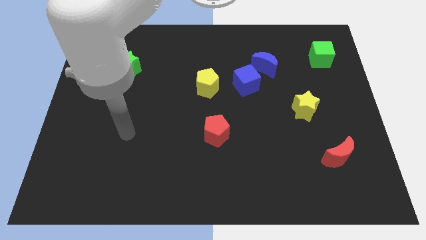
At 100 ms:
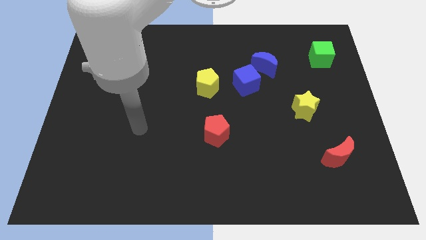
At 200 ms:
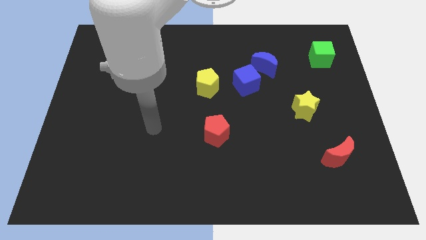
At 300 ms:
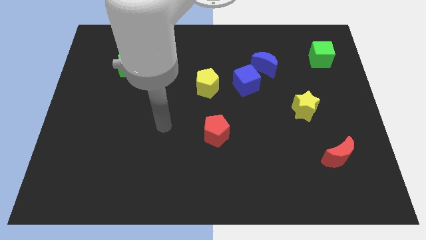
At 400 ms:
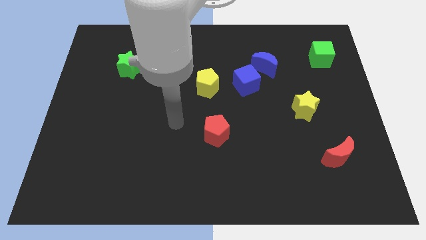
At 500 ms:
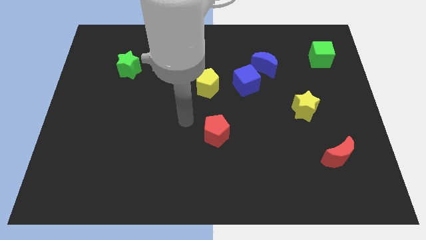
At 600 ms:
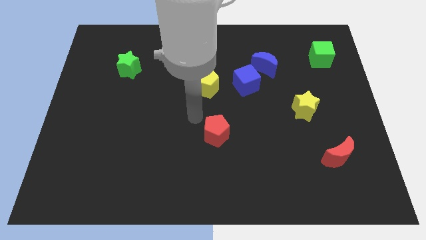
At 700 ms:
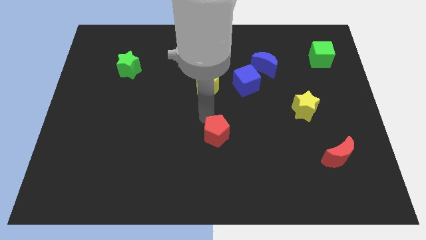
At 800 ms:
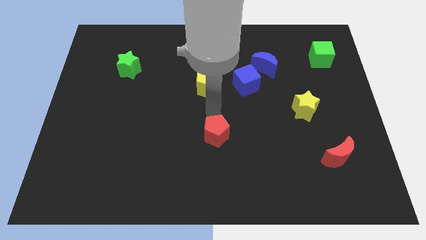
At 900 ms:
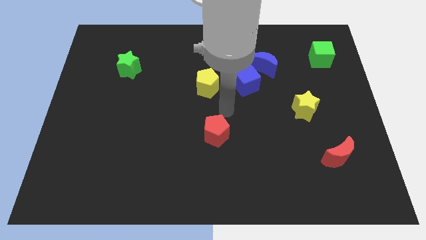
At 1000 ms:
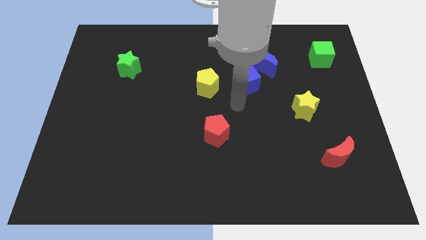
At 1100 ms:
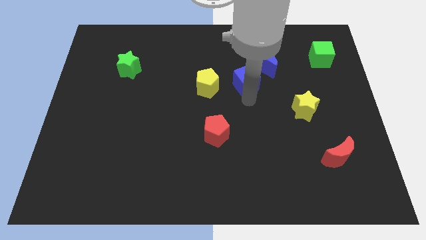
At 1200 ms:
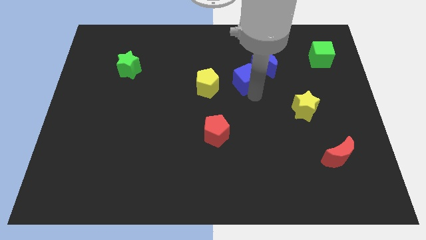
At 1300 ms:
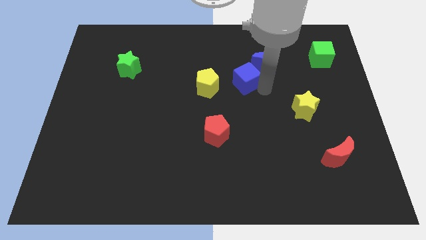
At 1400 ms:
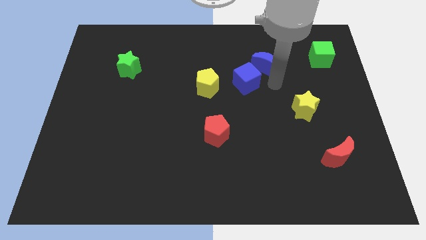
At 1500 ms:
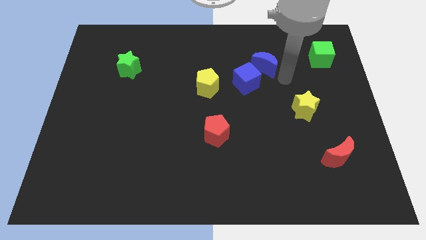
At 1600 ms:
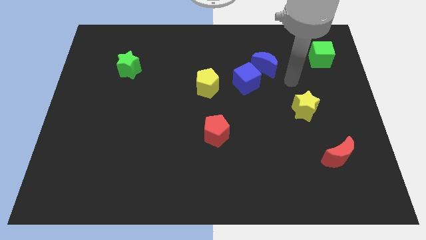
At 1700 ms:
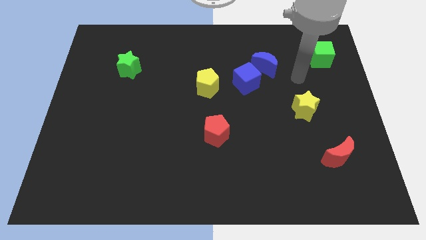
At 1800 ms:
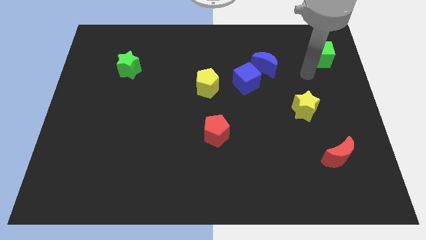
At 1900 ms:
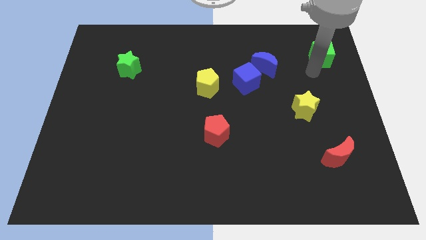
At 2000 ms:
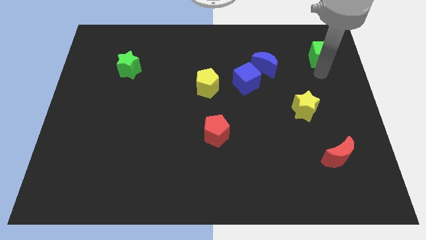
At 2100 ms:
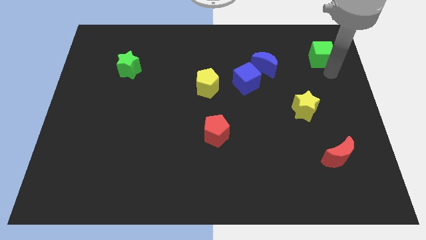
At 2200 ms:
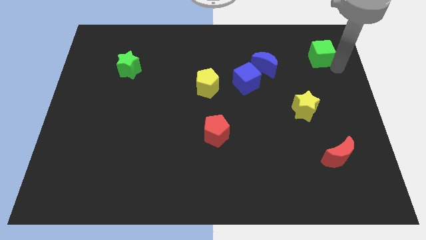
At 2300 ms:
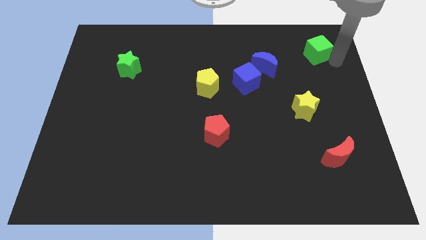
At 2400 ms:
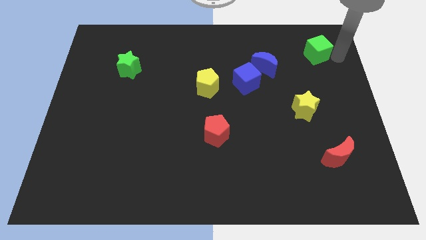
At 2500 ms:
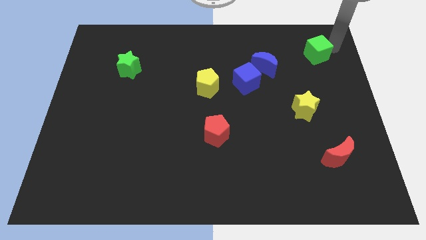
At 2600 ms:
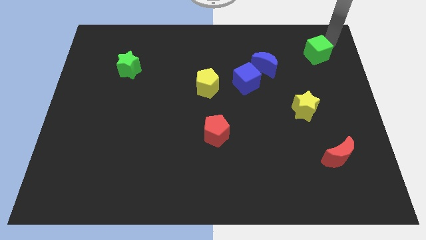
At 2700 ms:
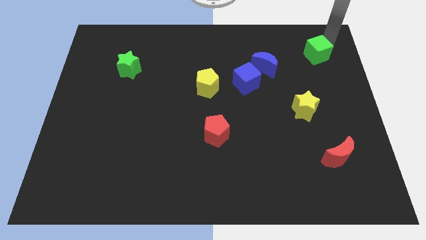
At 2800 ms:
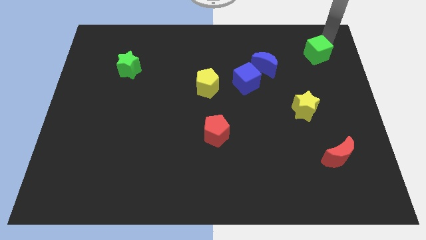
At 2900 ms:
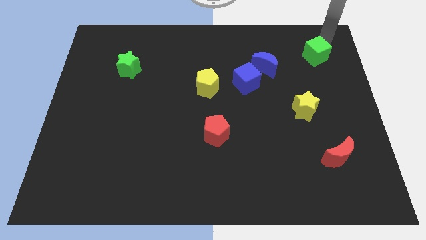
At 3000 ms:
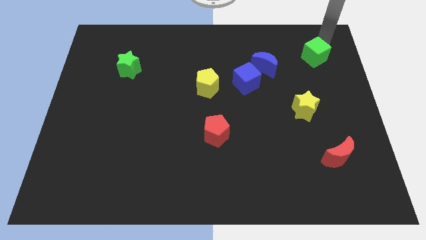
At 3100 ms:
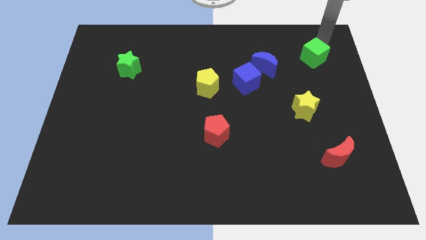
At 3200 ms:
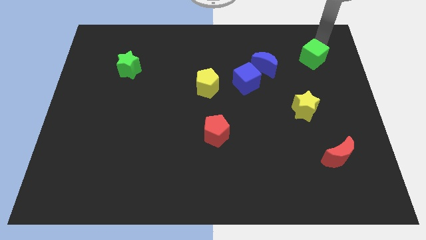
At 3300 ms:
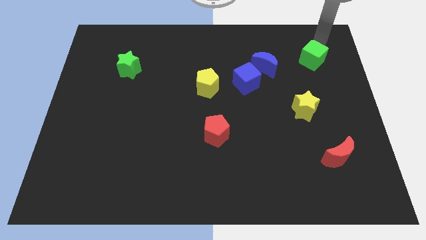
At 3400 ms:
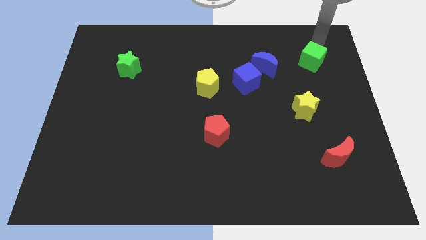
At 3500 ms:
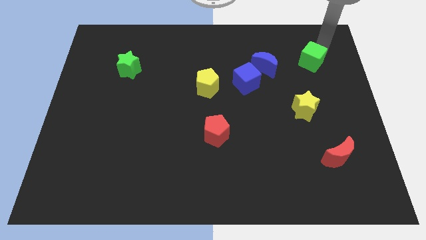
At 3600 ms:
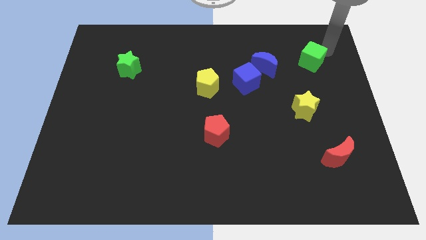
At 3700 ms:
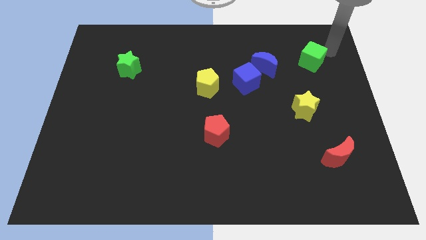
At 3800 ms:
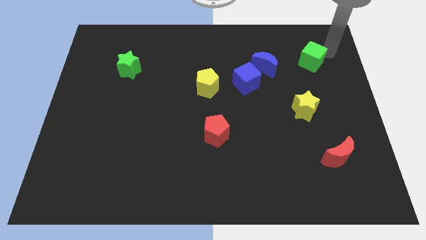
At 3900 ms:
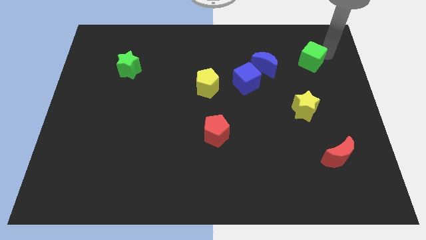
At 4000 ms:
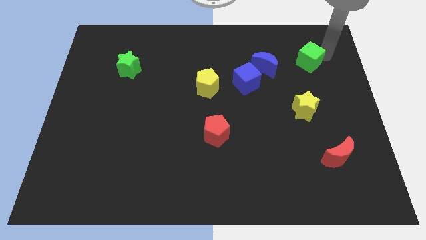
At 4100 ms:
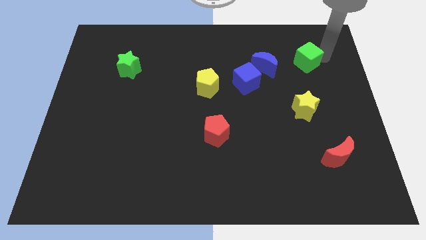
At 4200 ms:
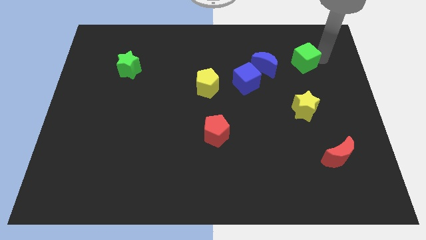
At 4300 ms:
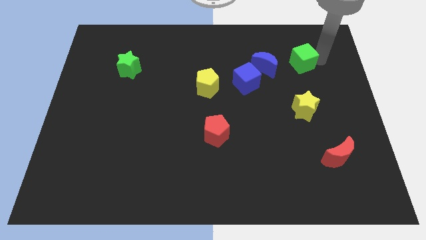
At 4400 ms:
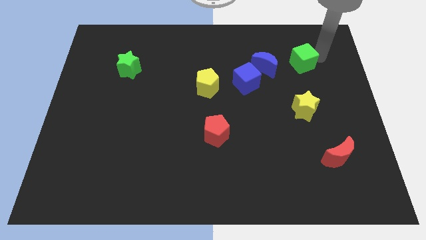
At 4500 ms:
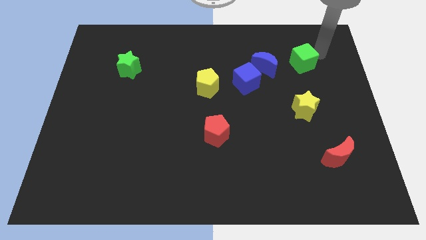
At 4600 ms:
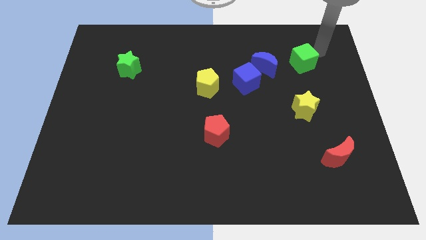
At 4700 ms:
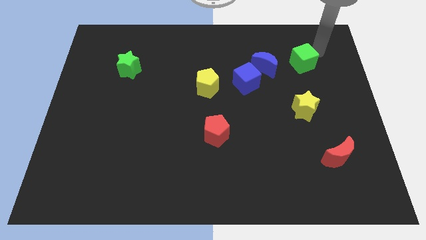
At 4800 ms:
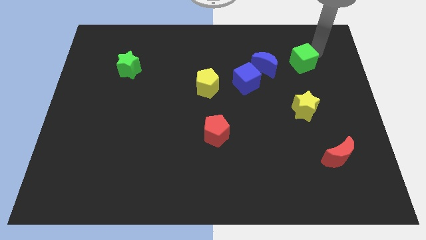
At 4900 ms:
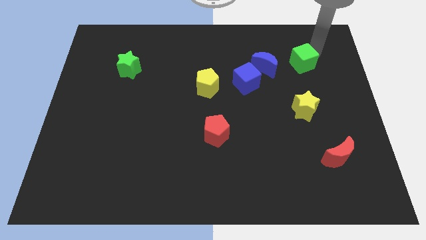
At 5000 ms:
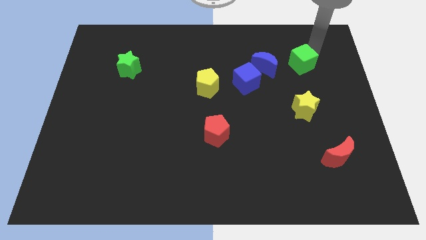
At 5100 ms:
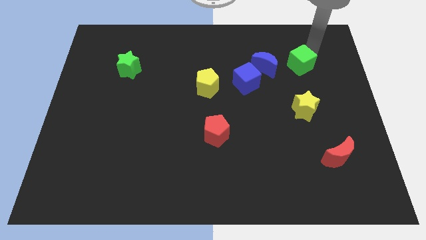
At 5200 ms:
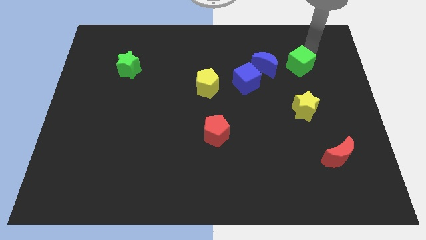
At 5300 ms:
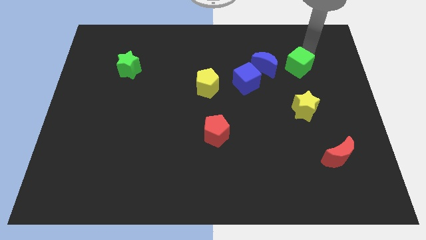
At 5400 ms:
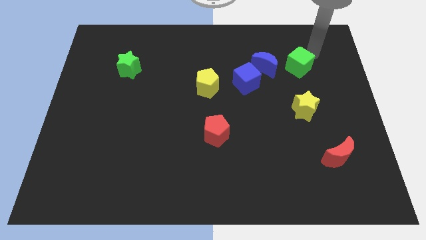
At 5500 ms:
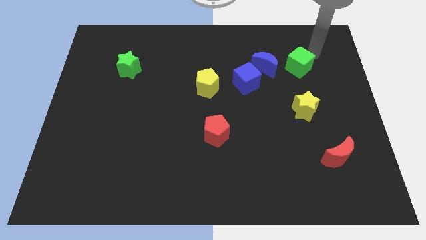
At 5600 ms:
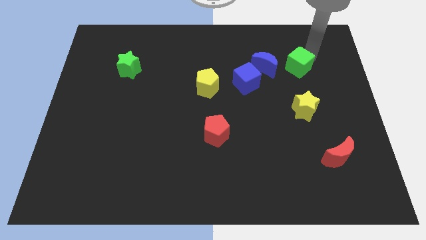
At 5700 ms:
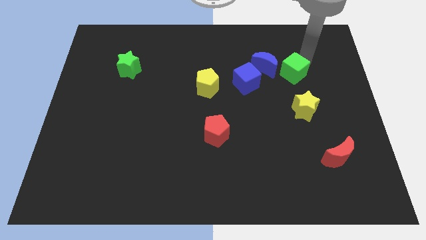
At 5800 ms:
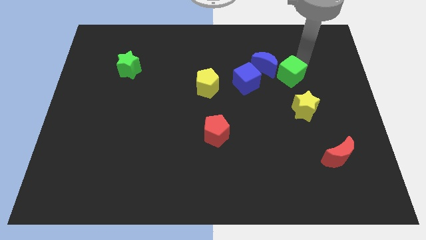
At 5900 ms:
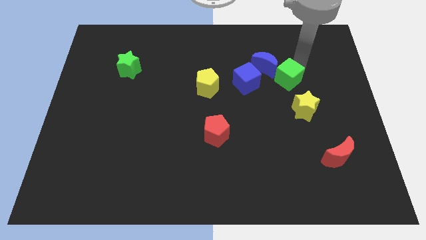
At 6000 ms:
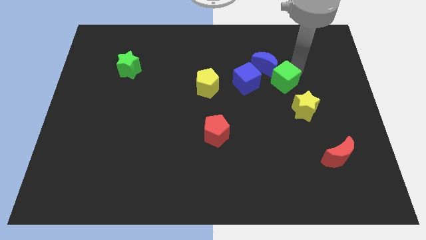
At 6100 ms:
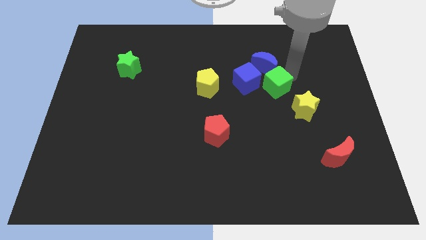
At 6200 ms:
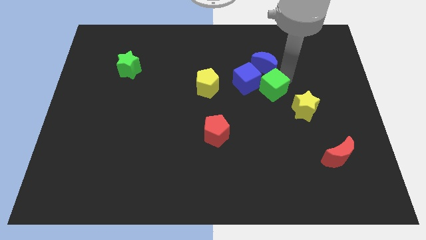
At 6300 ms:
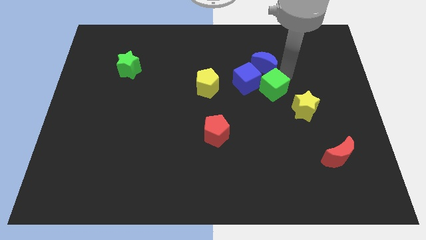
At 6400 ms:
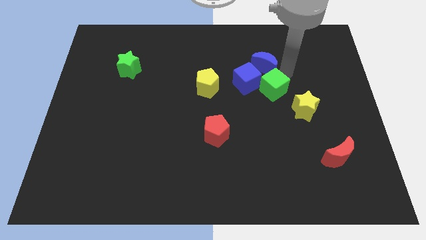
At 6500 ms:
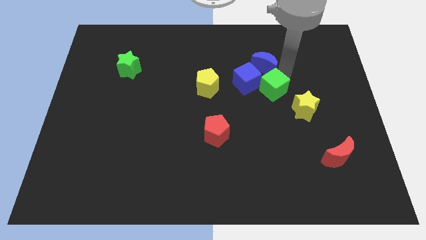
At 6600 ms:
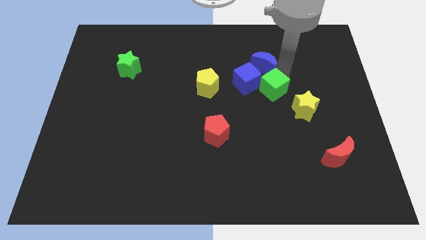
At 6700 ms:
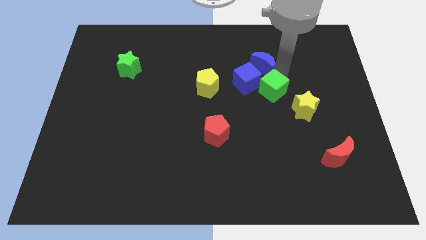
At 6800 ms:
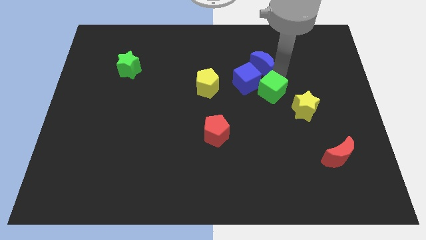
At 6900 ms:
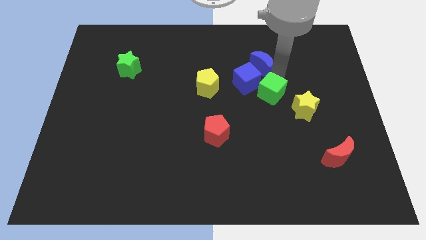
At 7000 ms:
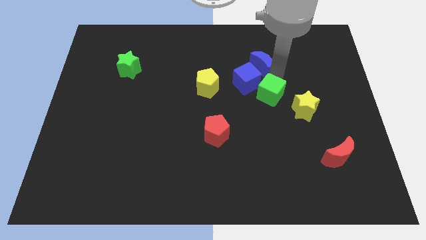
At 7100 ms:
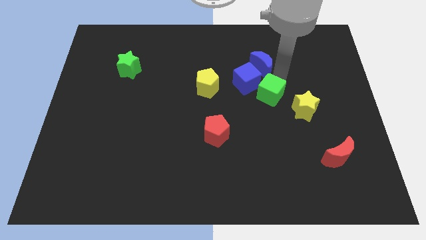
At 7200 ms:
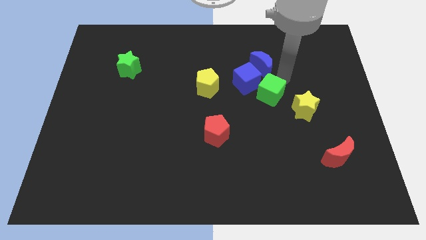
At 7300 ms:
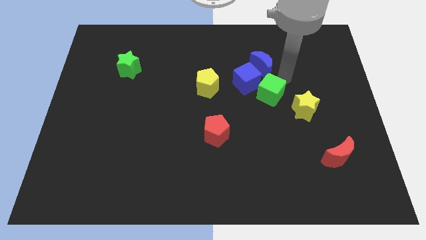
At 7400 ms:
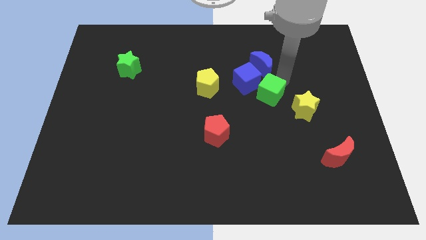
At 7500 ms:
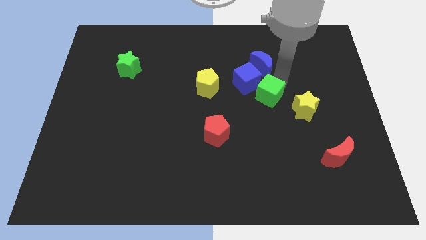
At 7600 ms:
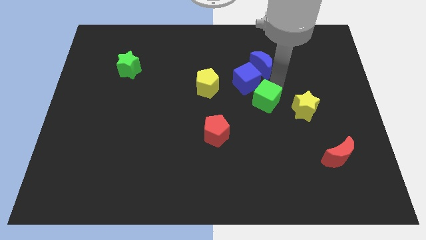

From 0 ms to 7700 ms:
move the green cube downwards and then to the left
